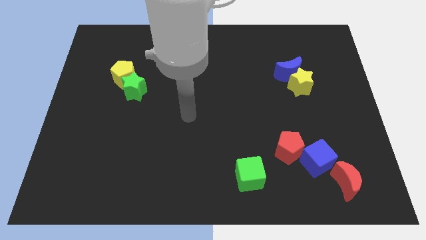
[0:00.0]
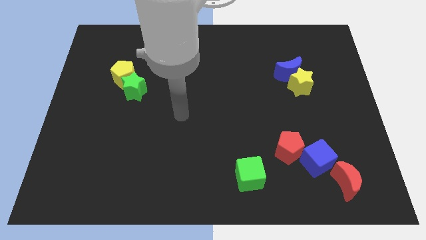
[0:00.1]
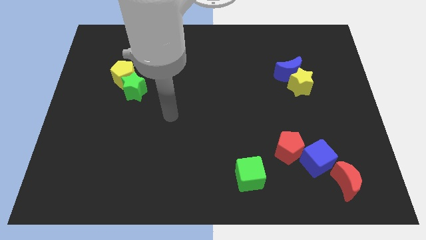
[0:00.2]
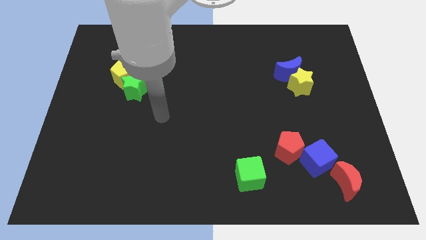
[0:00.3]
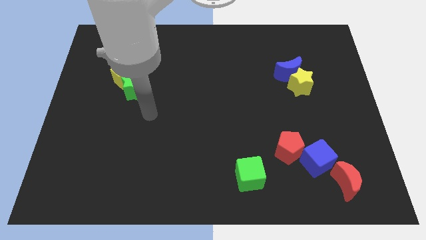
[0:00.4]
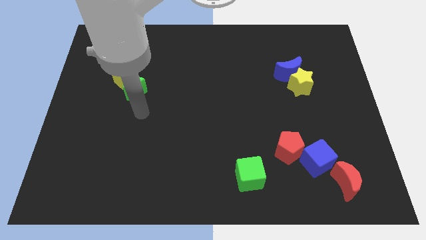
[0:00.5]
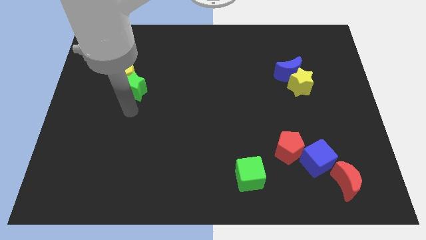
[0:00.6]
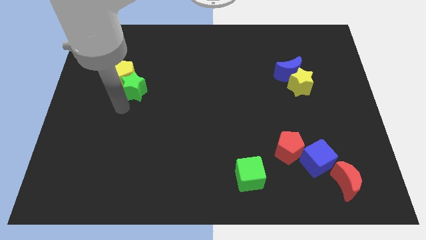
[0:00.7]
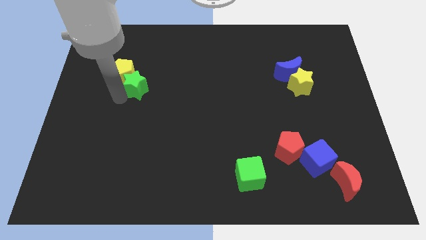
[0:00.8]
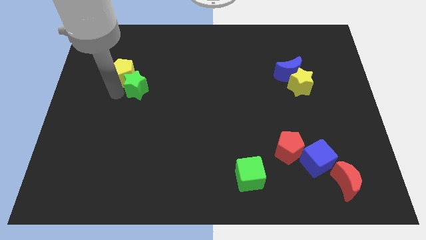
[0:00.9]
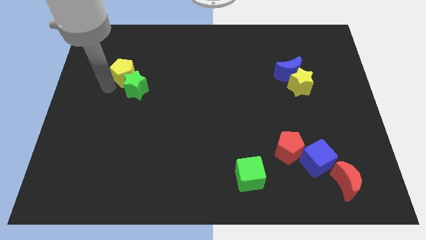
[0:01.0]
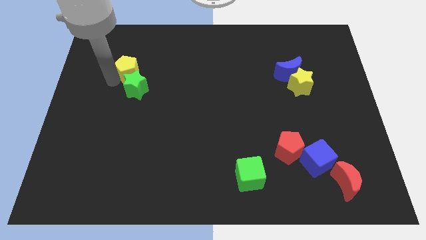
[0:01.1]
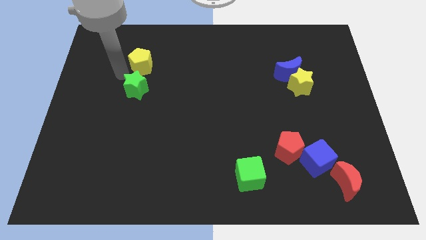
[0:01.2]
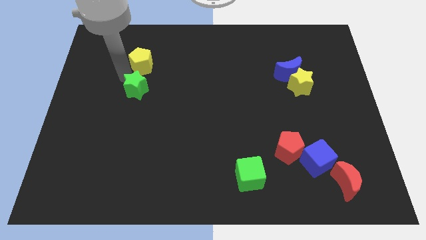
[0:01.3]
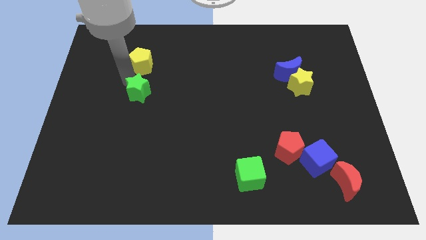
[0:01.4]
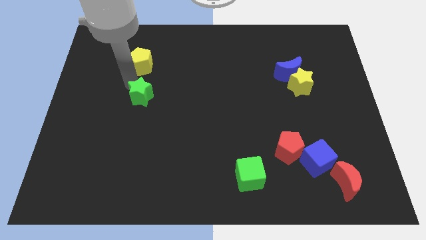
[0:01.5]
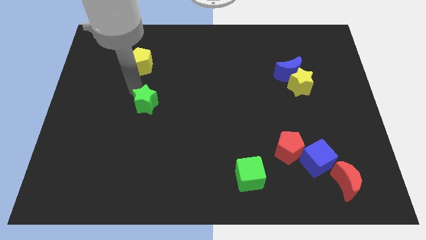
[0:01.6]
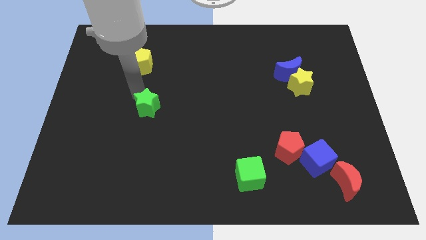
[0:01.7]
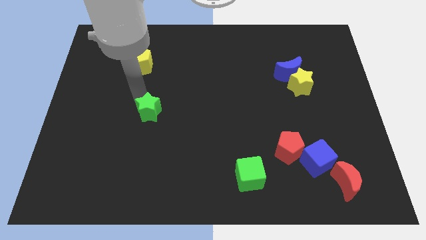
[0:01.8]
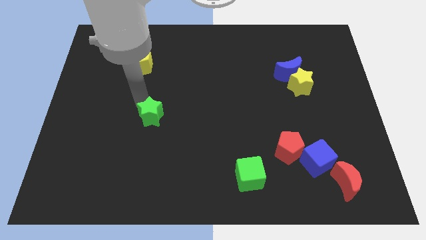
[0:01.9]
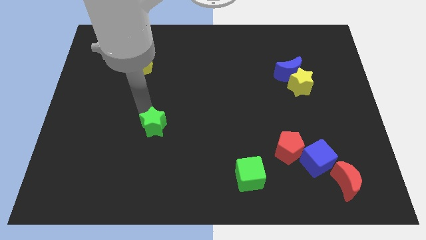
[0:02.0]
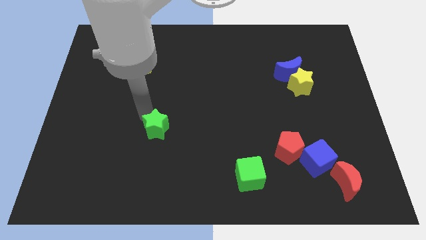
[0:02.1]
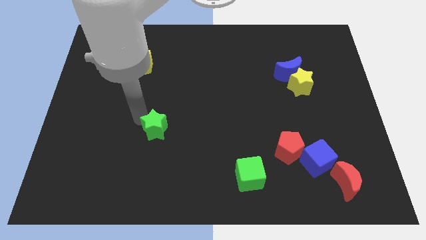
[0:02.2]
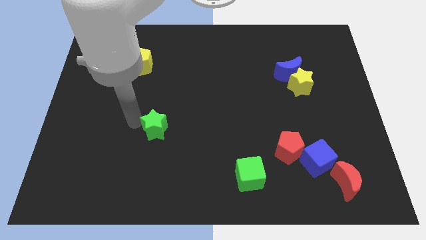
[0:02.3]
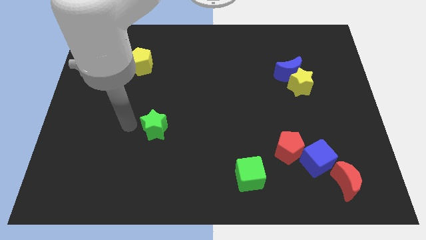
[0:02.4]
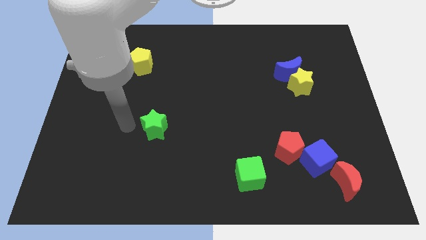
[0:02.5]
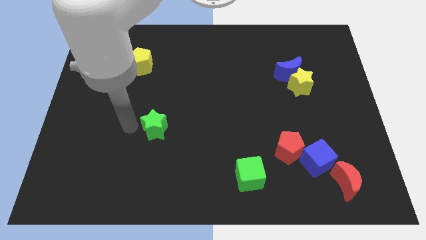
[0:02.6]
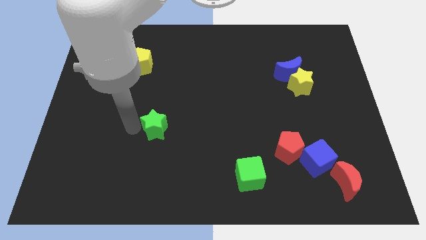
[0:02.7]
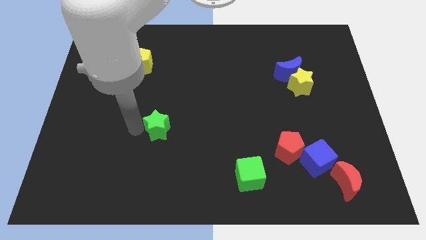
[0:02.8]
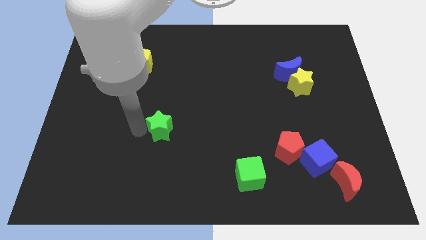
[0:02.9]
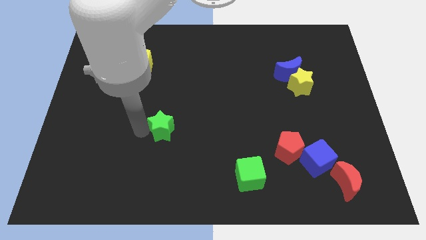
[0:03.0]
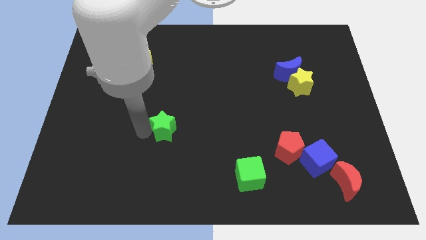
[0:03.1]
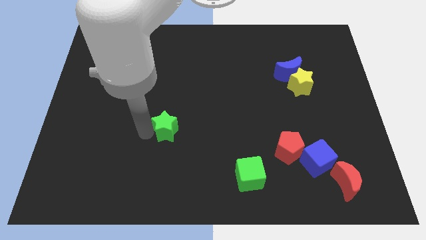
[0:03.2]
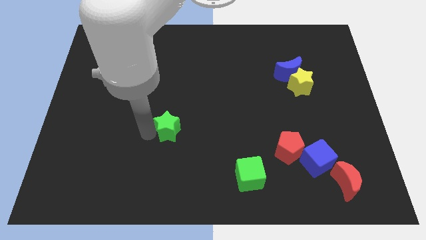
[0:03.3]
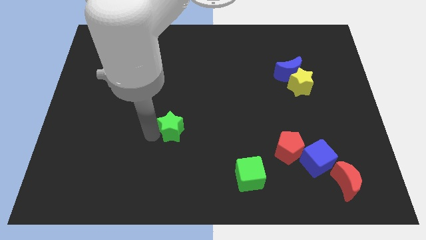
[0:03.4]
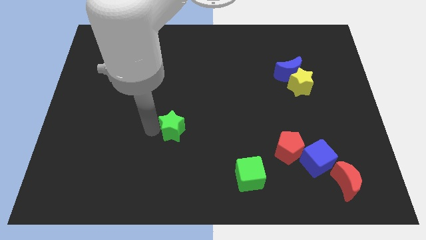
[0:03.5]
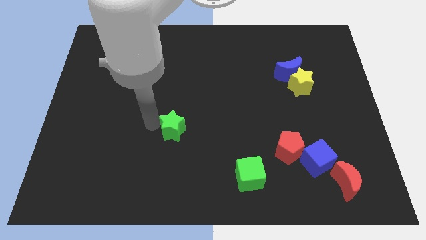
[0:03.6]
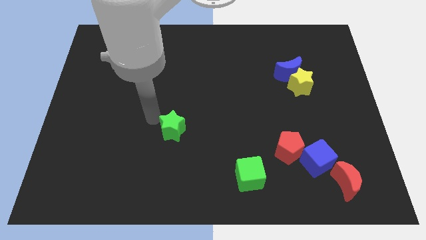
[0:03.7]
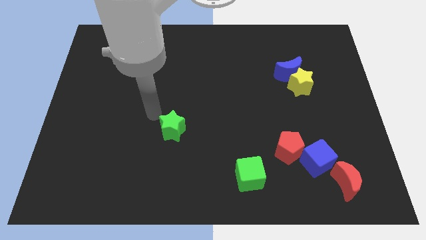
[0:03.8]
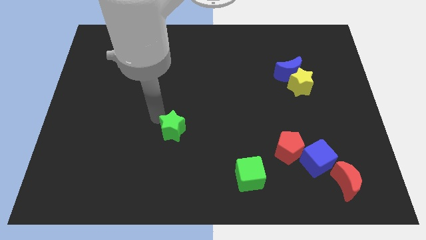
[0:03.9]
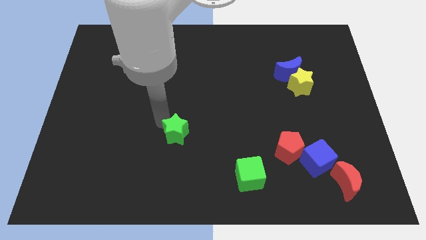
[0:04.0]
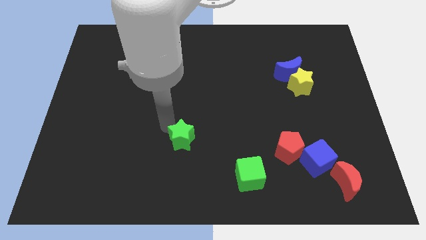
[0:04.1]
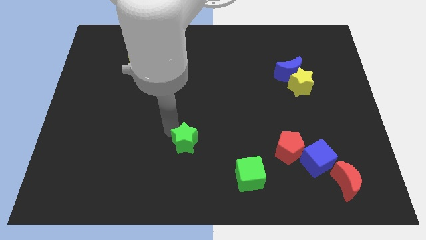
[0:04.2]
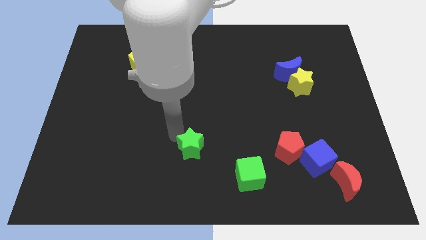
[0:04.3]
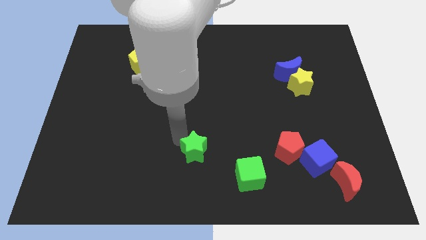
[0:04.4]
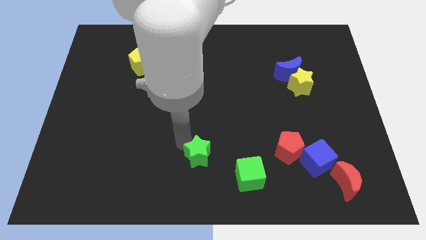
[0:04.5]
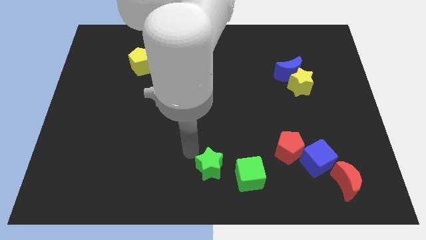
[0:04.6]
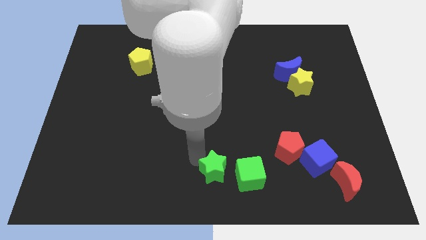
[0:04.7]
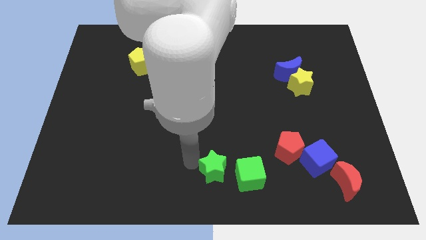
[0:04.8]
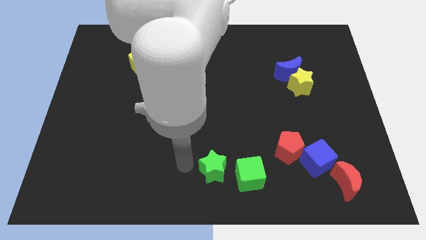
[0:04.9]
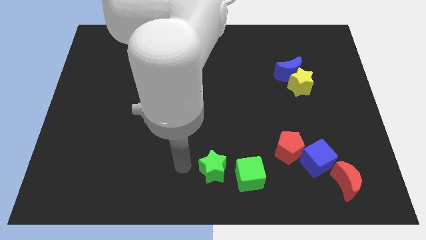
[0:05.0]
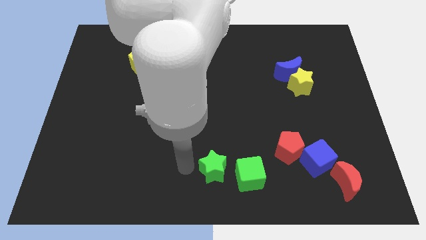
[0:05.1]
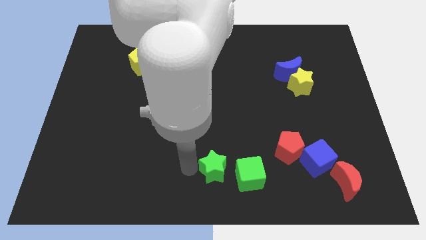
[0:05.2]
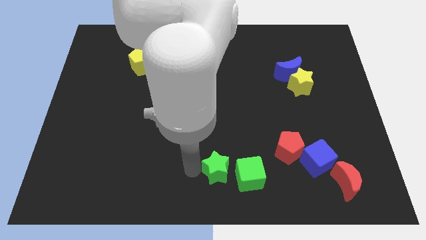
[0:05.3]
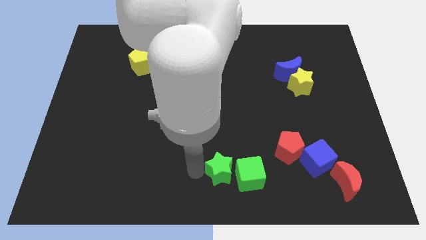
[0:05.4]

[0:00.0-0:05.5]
push the green star towards the green cube

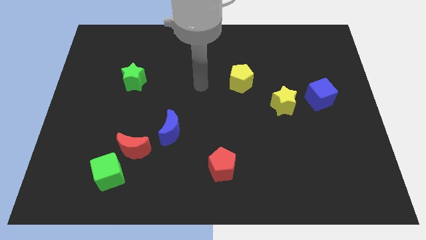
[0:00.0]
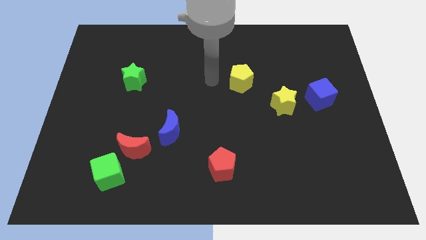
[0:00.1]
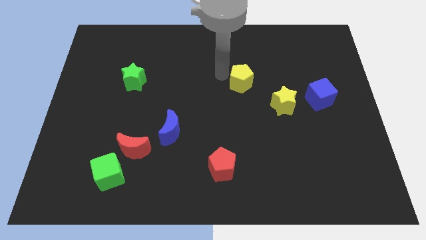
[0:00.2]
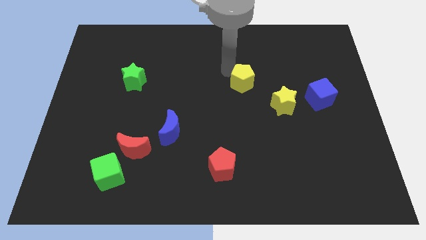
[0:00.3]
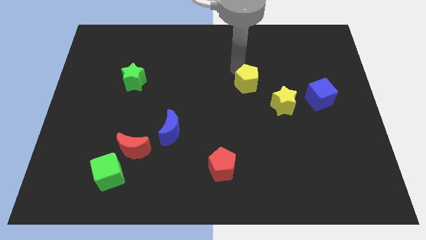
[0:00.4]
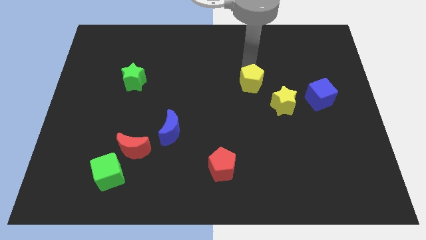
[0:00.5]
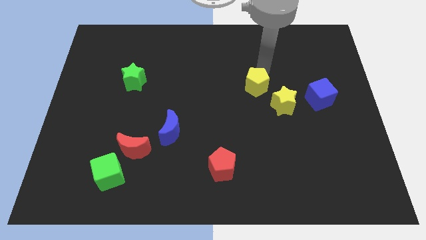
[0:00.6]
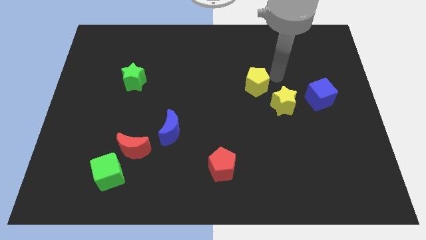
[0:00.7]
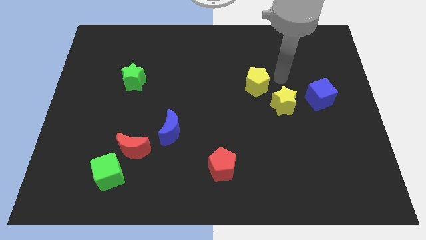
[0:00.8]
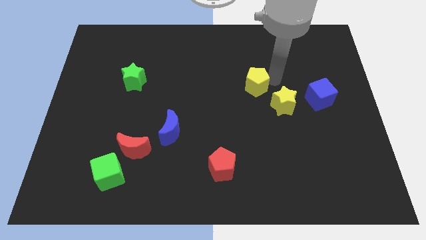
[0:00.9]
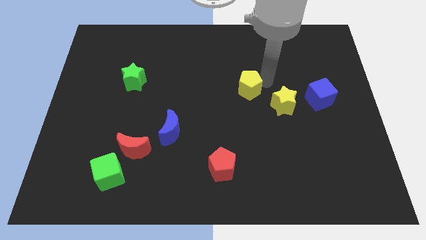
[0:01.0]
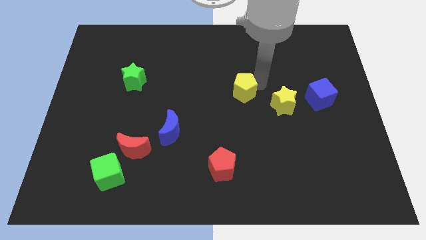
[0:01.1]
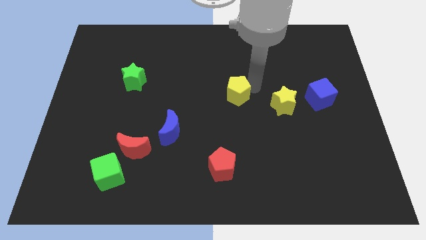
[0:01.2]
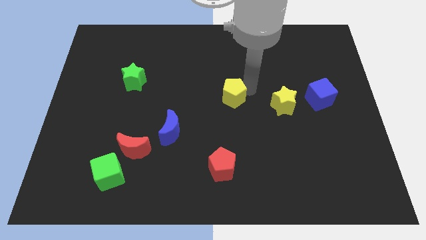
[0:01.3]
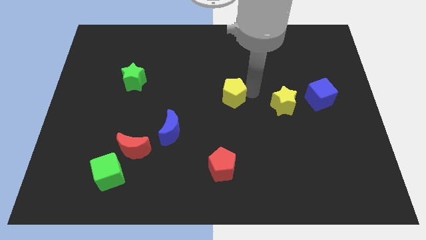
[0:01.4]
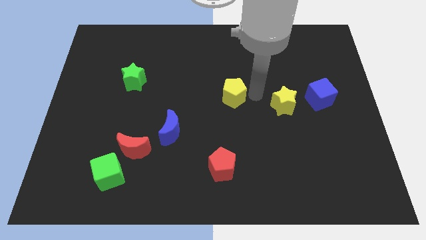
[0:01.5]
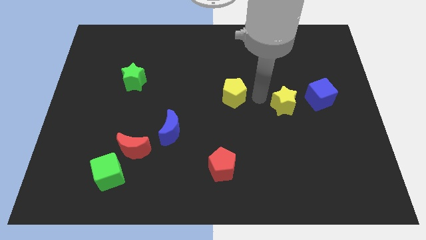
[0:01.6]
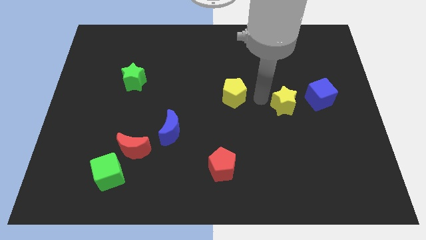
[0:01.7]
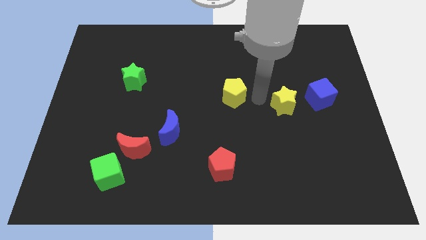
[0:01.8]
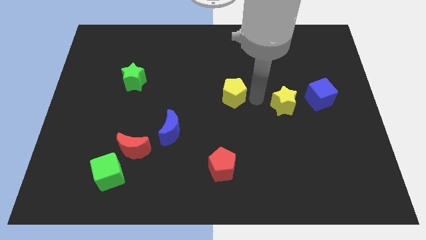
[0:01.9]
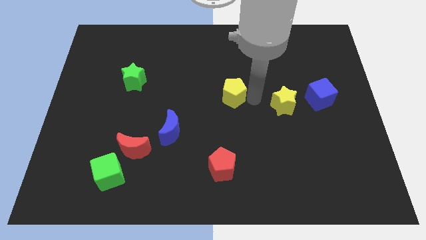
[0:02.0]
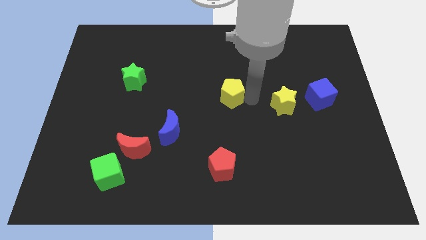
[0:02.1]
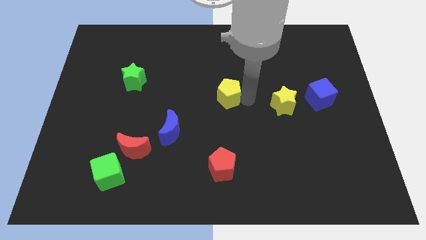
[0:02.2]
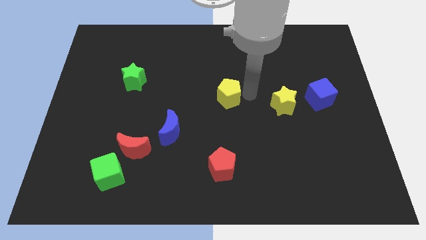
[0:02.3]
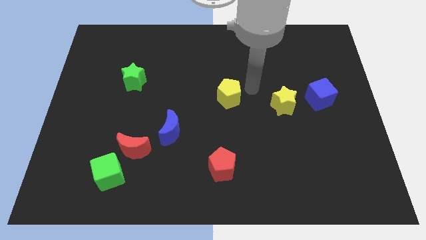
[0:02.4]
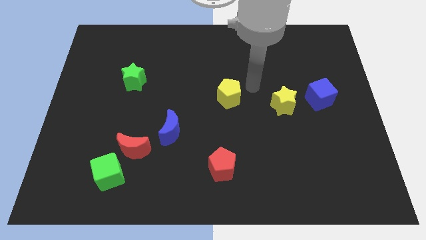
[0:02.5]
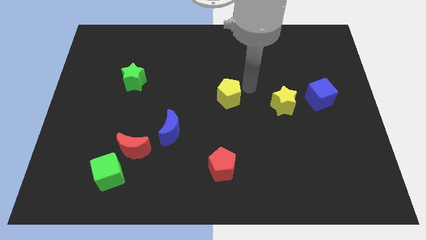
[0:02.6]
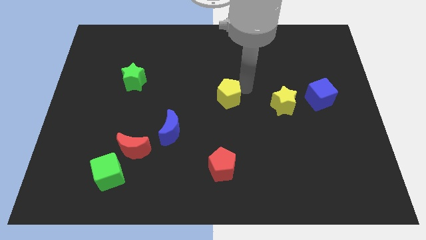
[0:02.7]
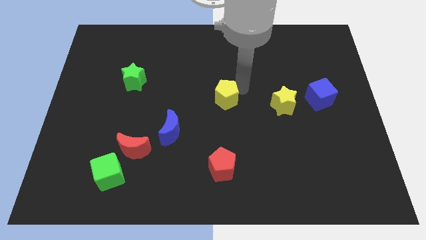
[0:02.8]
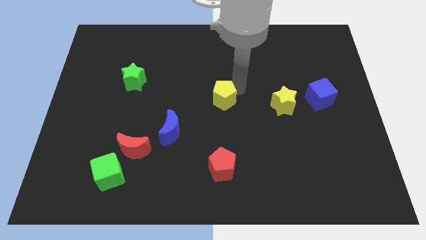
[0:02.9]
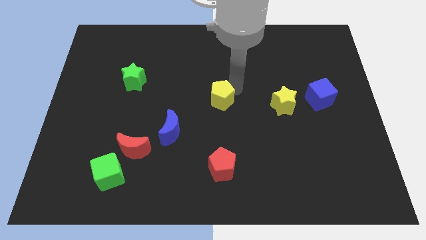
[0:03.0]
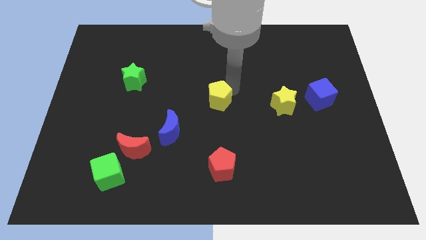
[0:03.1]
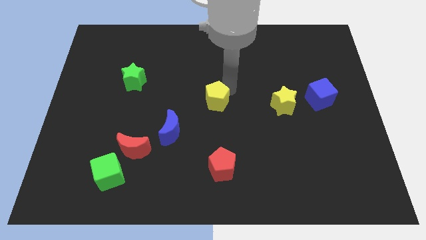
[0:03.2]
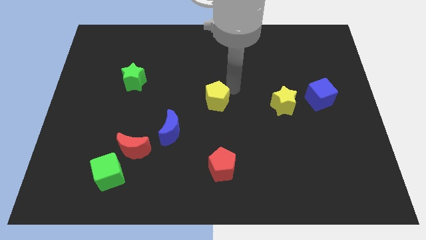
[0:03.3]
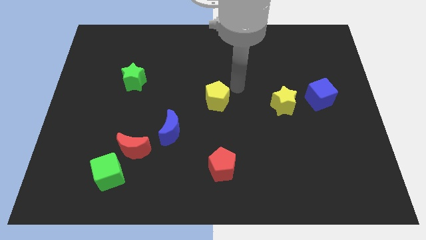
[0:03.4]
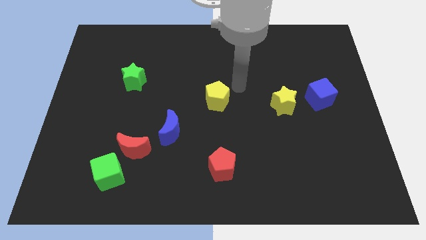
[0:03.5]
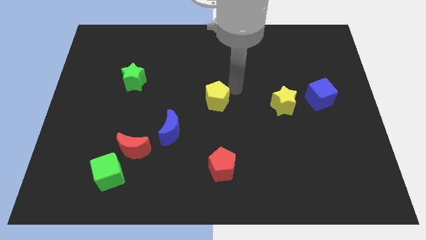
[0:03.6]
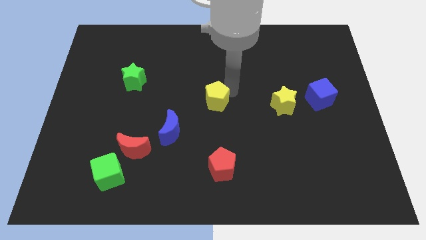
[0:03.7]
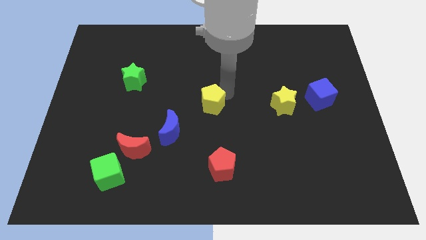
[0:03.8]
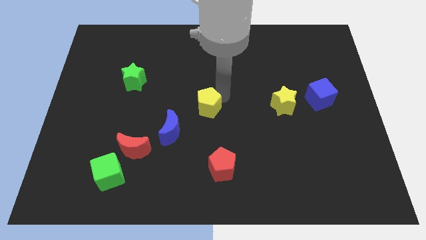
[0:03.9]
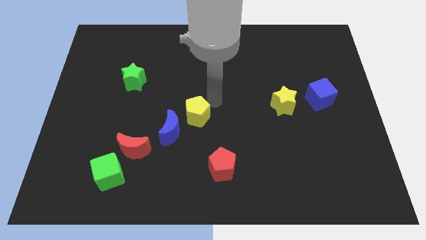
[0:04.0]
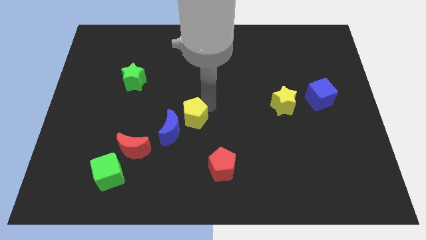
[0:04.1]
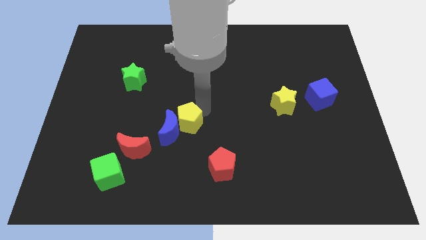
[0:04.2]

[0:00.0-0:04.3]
slide the yellow pentagon next to the blue moon
